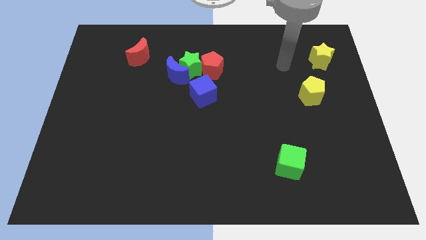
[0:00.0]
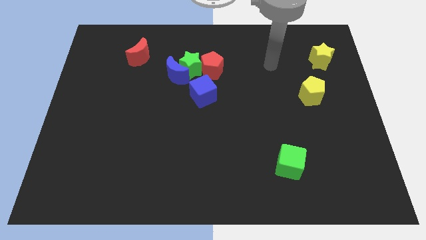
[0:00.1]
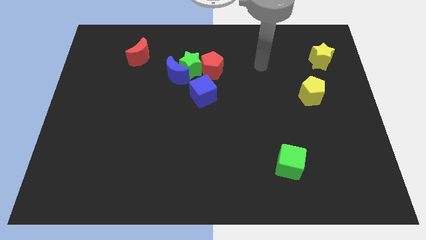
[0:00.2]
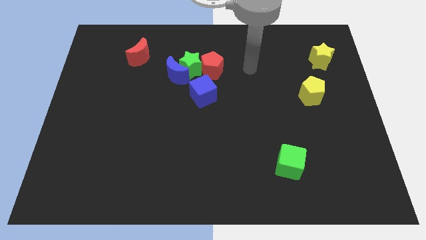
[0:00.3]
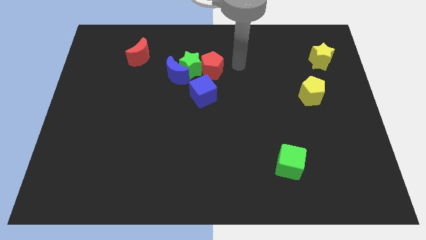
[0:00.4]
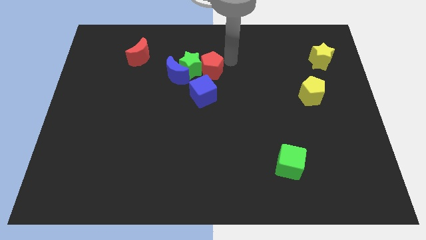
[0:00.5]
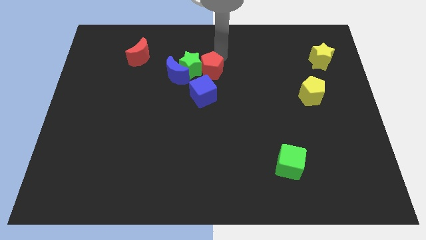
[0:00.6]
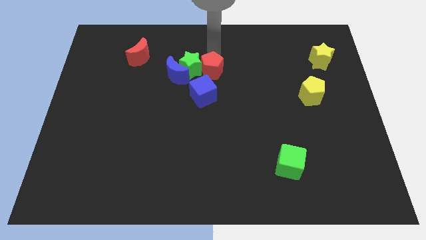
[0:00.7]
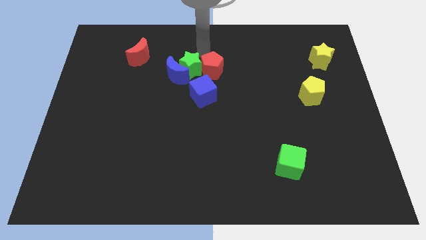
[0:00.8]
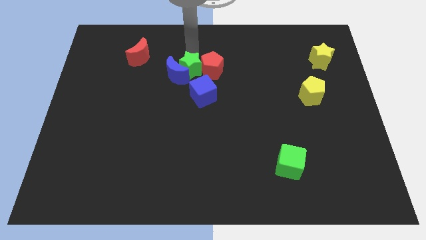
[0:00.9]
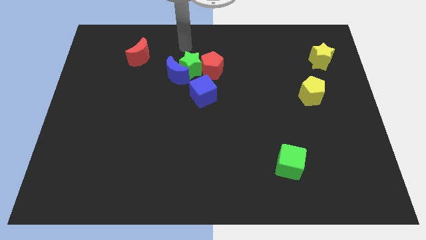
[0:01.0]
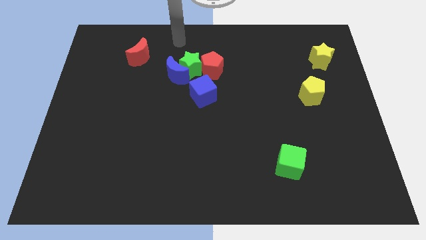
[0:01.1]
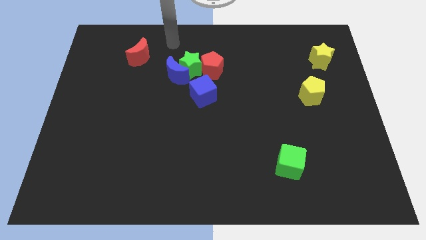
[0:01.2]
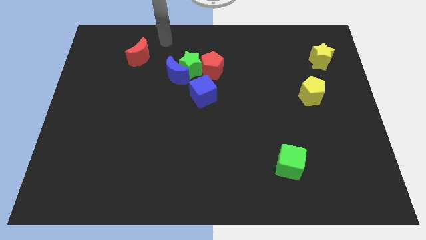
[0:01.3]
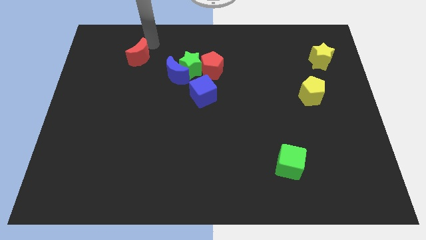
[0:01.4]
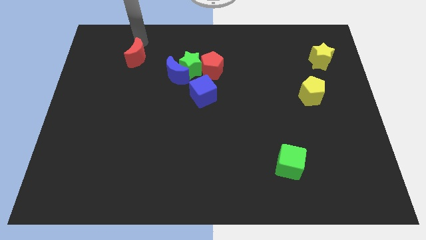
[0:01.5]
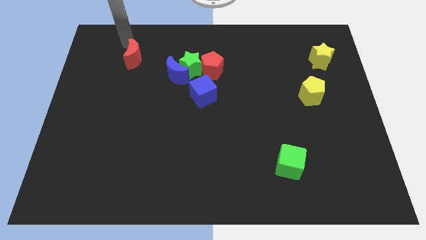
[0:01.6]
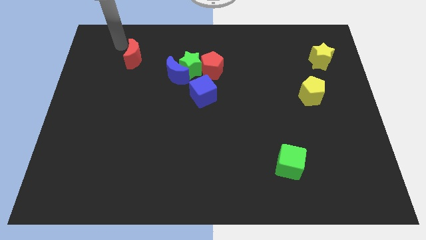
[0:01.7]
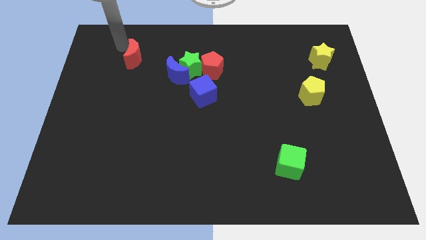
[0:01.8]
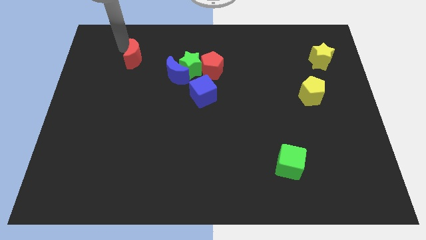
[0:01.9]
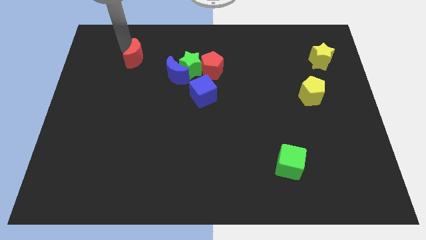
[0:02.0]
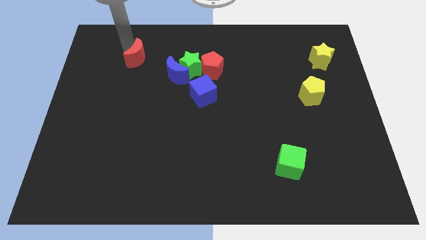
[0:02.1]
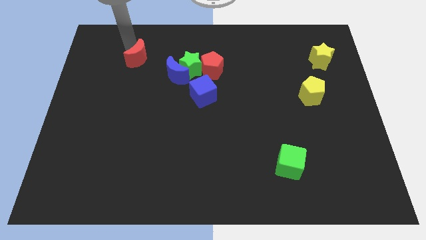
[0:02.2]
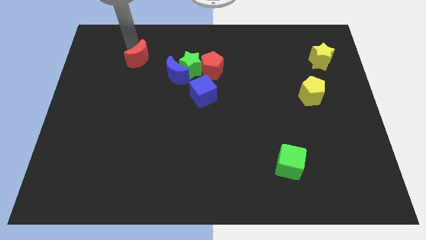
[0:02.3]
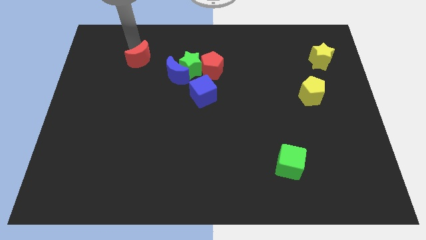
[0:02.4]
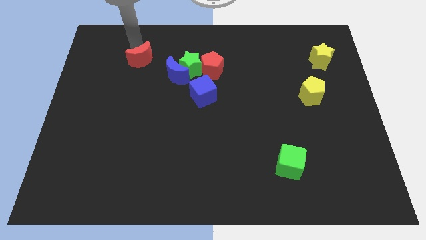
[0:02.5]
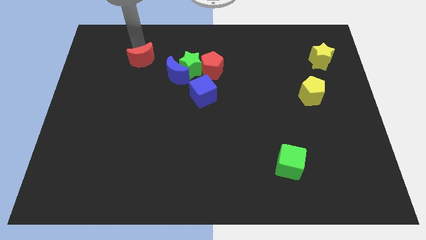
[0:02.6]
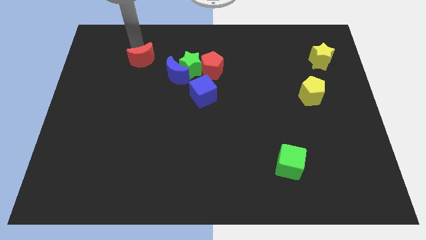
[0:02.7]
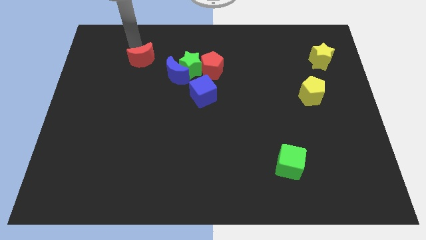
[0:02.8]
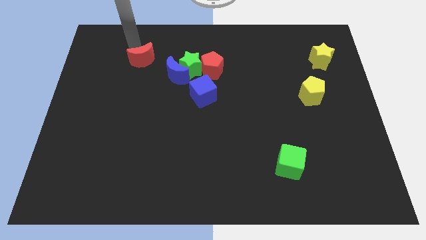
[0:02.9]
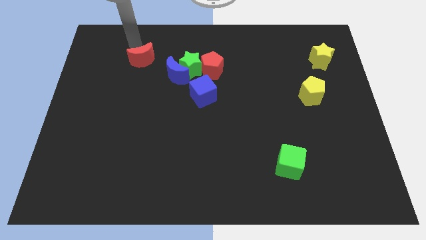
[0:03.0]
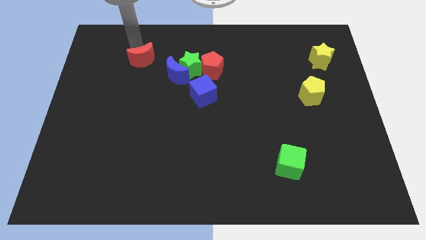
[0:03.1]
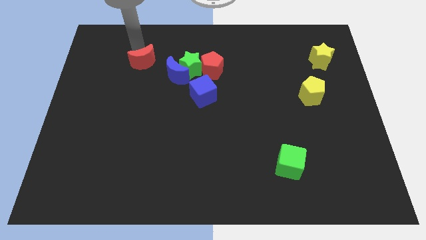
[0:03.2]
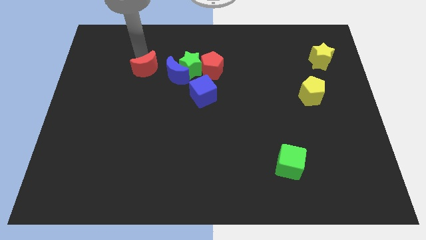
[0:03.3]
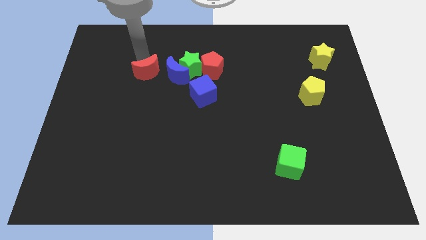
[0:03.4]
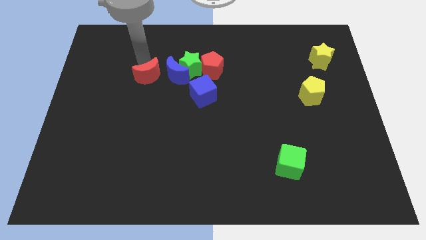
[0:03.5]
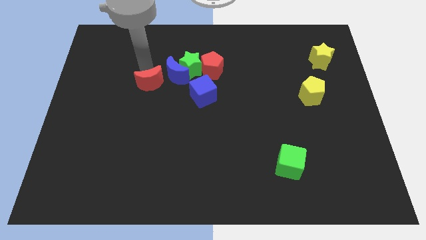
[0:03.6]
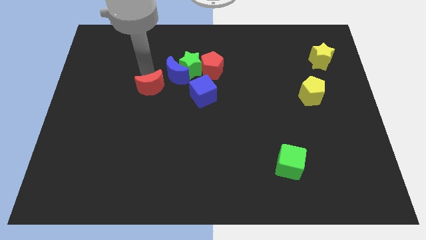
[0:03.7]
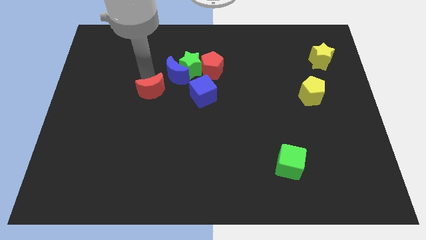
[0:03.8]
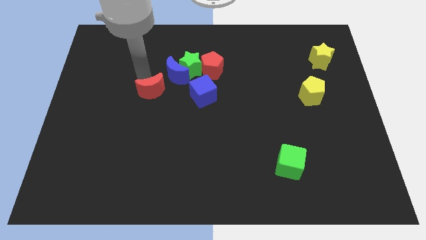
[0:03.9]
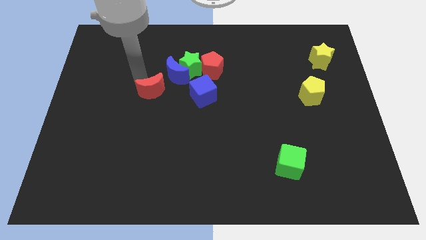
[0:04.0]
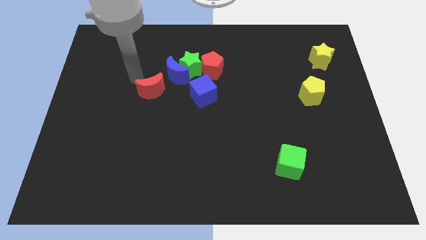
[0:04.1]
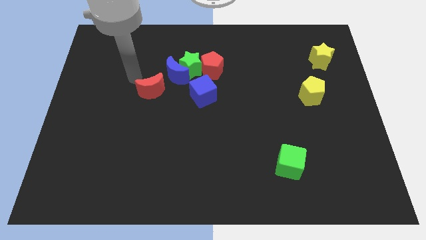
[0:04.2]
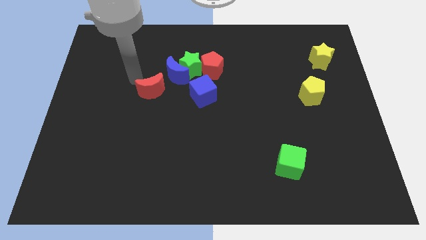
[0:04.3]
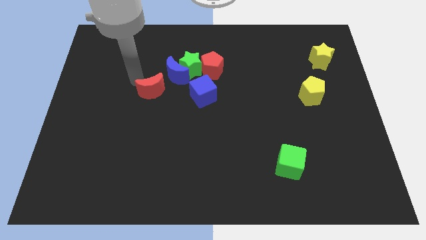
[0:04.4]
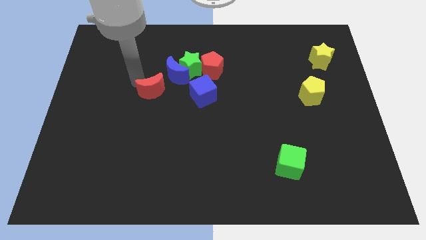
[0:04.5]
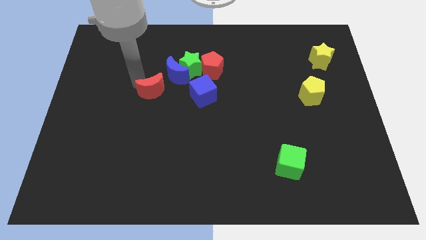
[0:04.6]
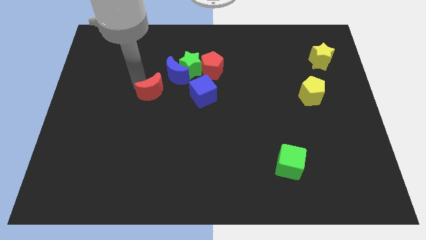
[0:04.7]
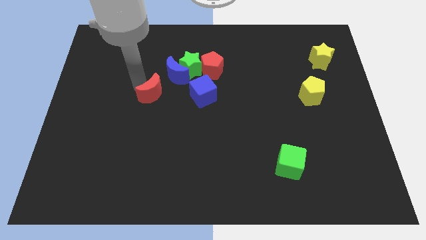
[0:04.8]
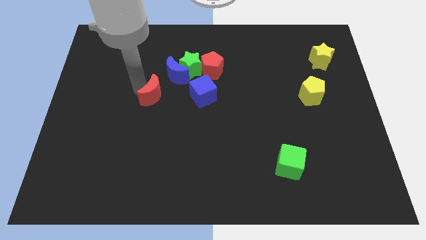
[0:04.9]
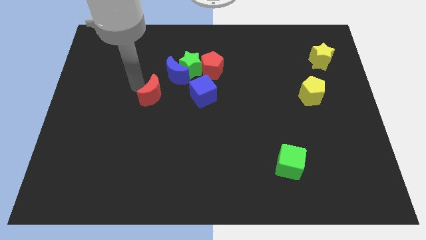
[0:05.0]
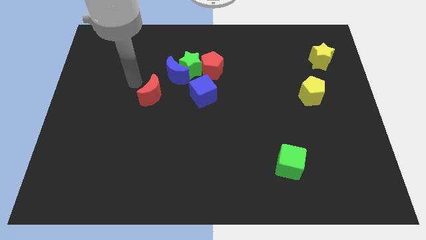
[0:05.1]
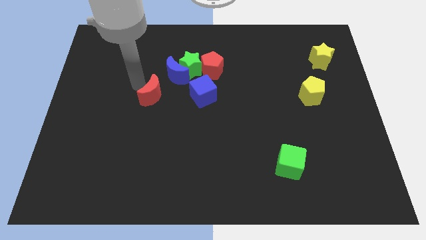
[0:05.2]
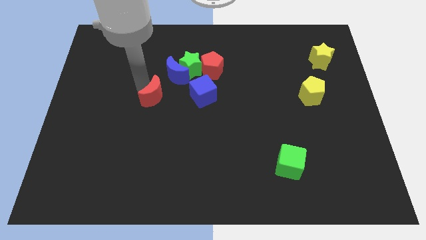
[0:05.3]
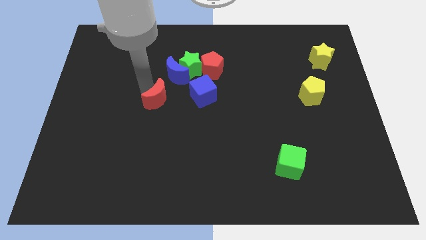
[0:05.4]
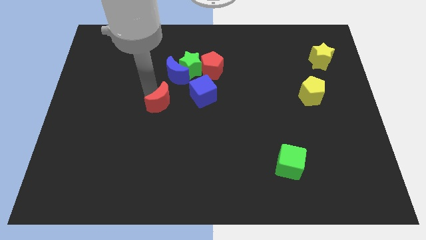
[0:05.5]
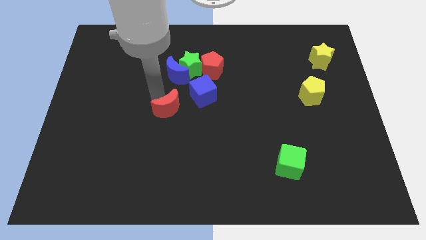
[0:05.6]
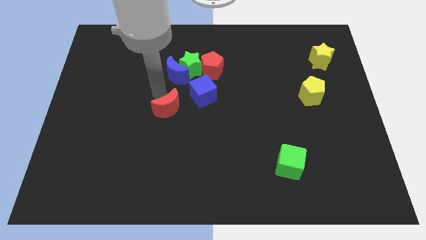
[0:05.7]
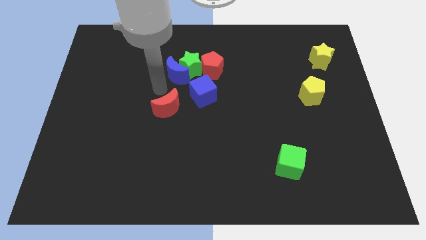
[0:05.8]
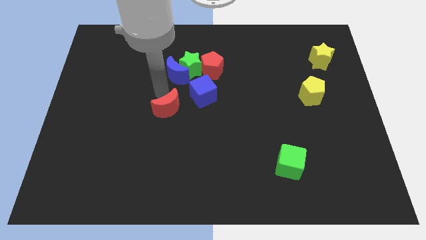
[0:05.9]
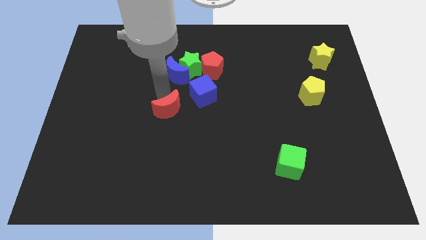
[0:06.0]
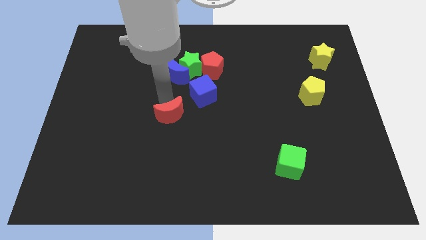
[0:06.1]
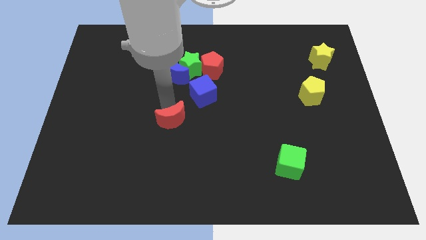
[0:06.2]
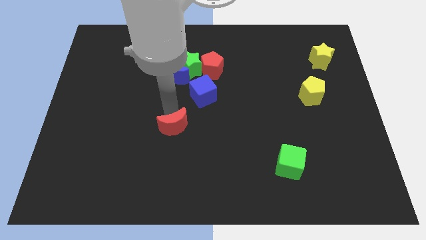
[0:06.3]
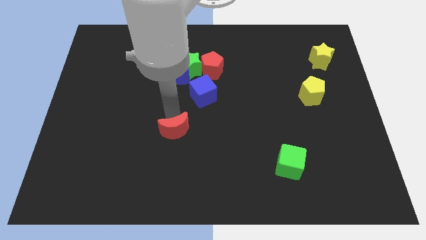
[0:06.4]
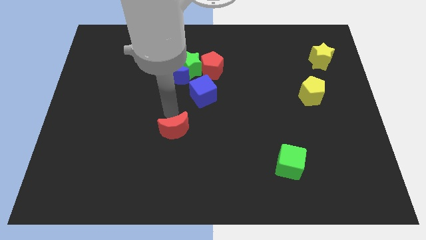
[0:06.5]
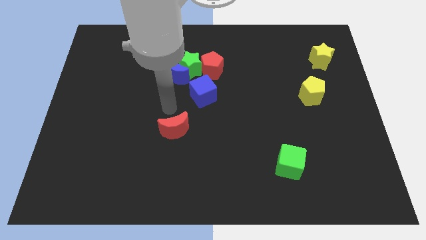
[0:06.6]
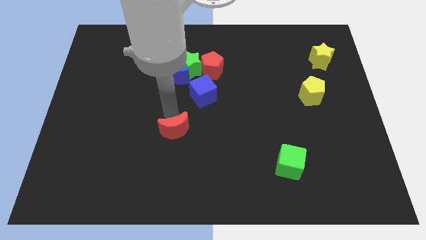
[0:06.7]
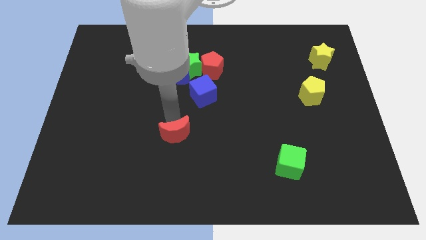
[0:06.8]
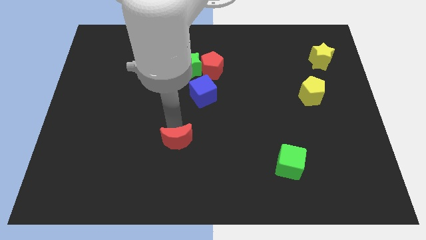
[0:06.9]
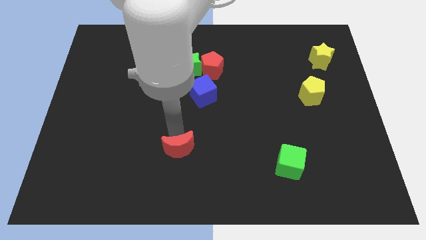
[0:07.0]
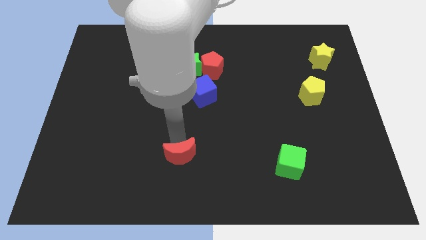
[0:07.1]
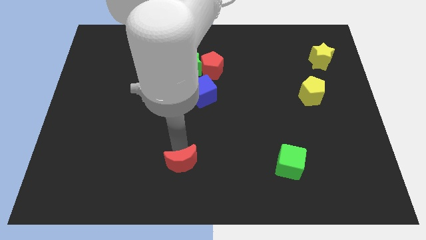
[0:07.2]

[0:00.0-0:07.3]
move the red moon to the bottom
